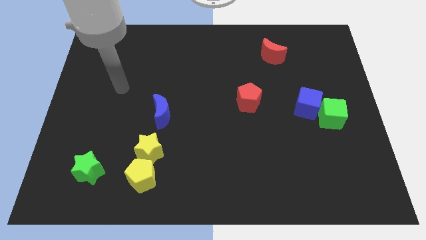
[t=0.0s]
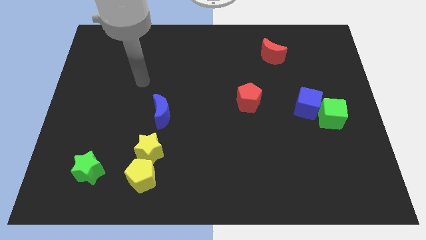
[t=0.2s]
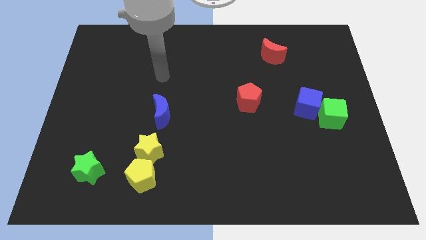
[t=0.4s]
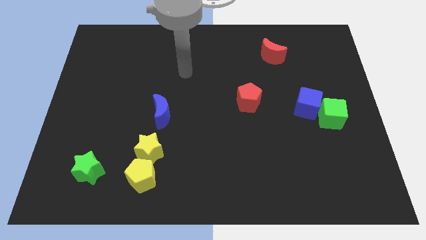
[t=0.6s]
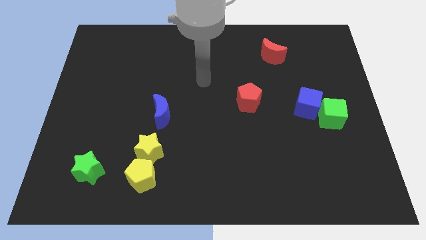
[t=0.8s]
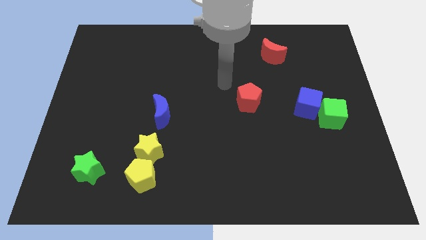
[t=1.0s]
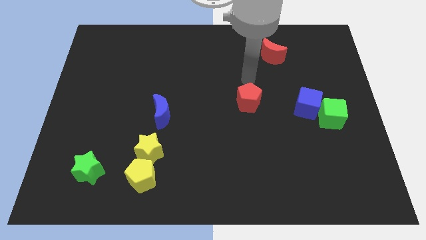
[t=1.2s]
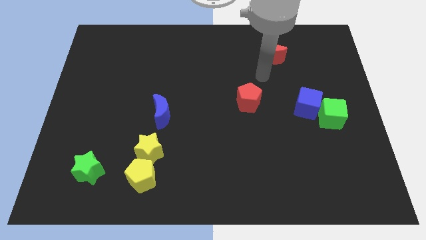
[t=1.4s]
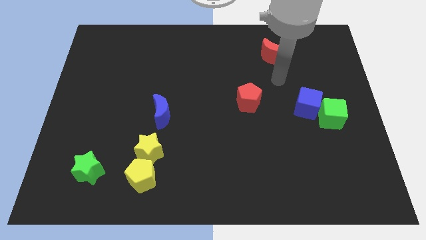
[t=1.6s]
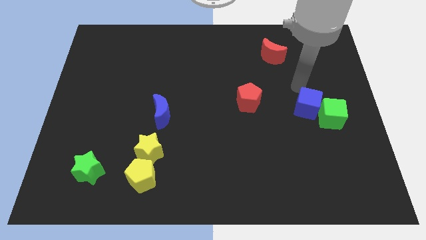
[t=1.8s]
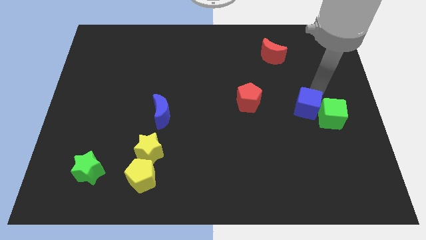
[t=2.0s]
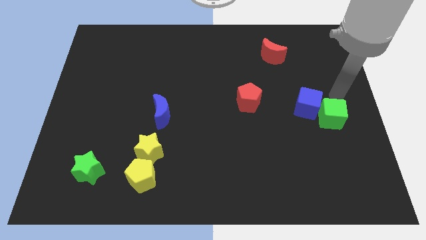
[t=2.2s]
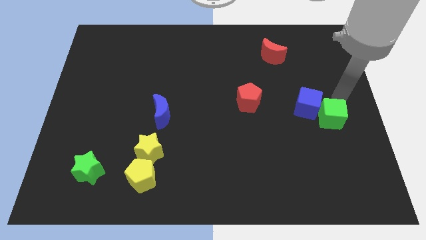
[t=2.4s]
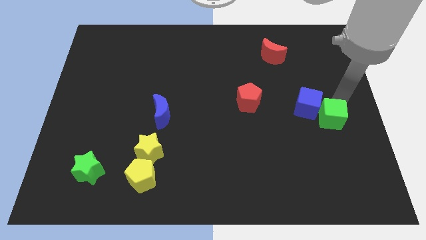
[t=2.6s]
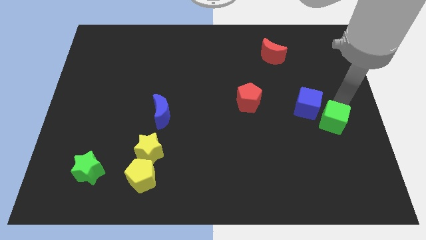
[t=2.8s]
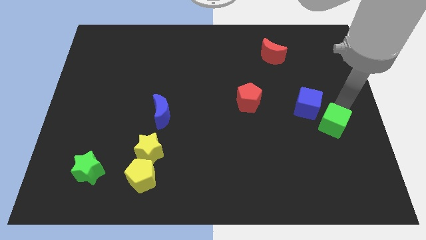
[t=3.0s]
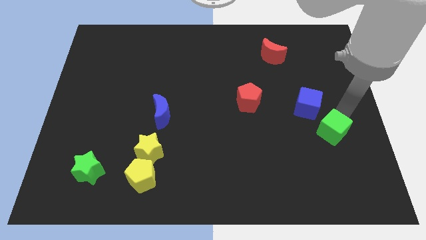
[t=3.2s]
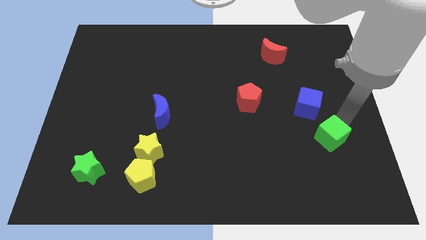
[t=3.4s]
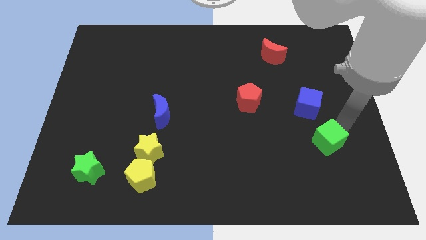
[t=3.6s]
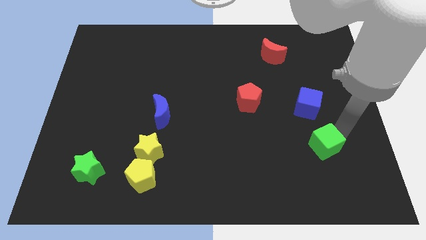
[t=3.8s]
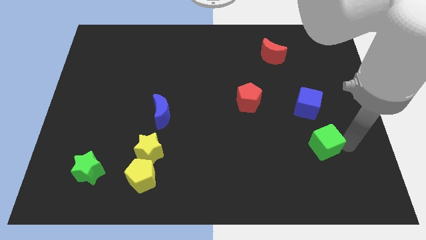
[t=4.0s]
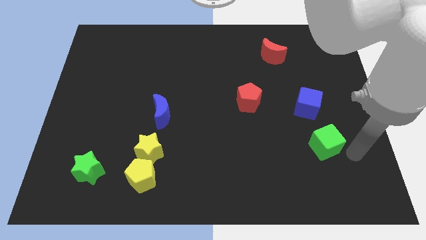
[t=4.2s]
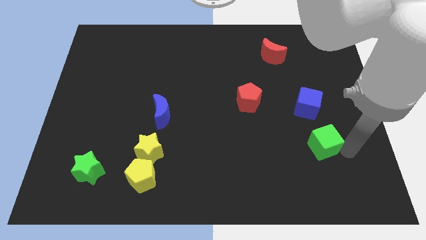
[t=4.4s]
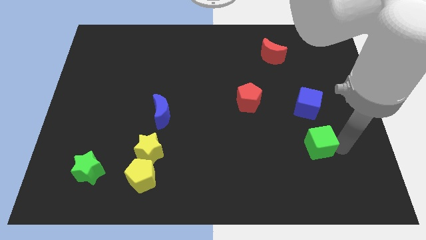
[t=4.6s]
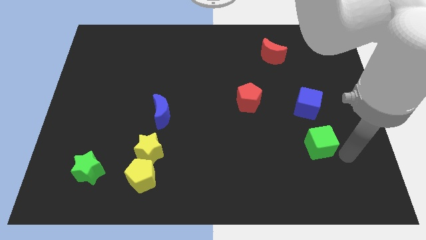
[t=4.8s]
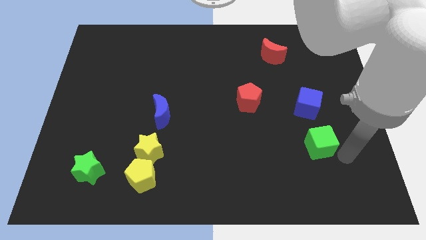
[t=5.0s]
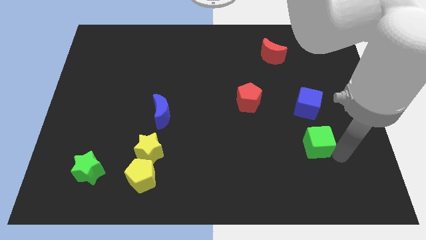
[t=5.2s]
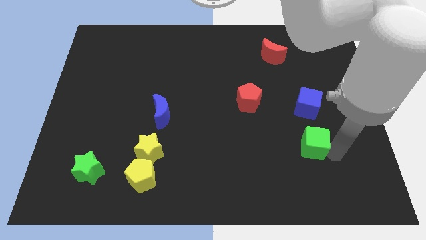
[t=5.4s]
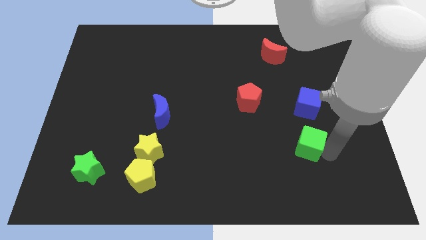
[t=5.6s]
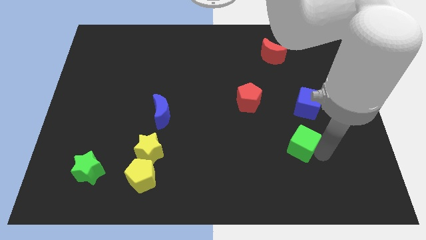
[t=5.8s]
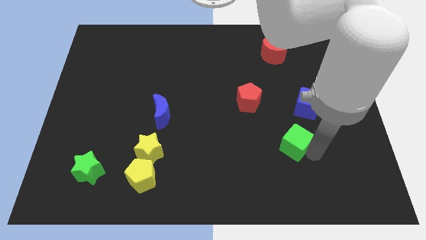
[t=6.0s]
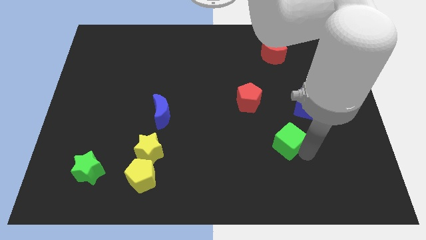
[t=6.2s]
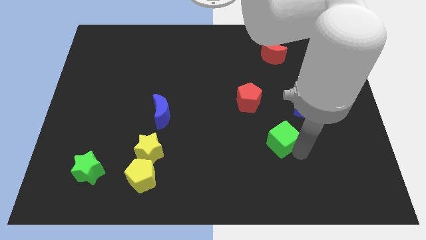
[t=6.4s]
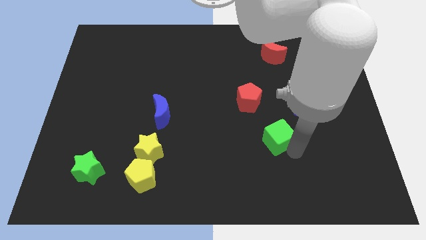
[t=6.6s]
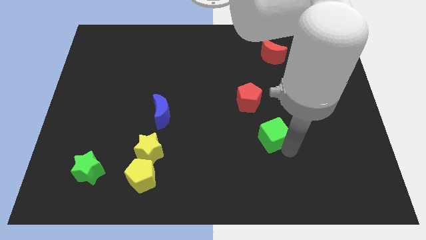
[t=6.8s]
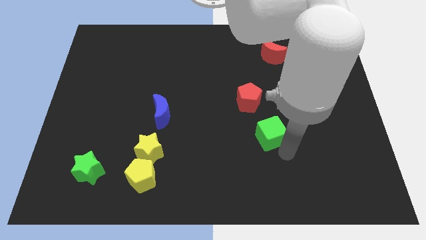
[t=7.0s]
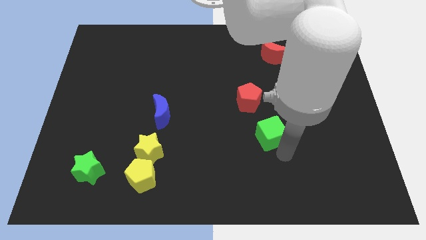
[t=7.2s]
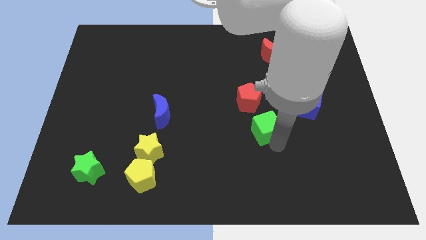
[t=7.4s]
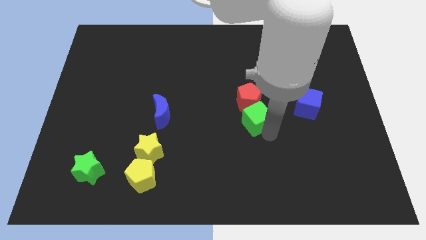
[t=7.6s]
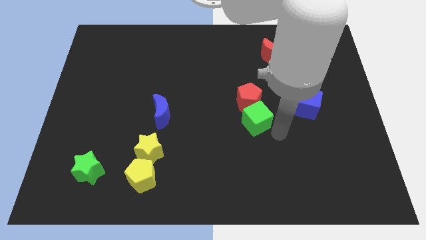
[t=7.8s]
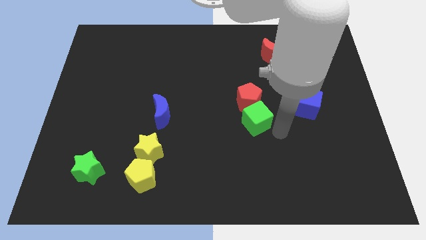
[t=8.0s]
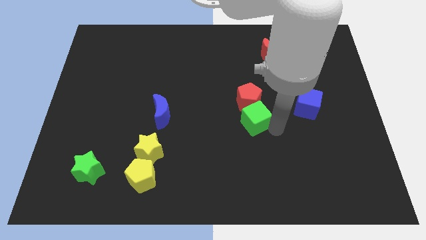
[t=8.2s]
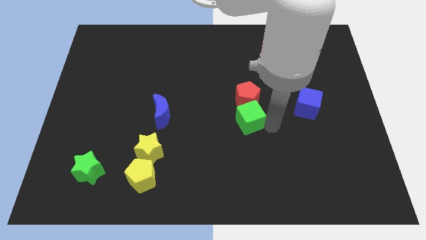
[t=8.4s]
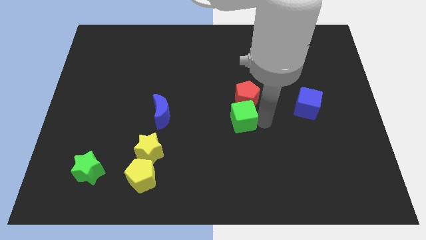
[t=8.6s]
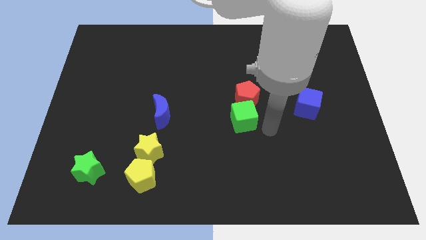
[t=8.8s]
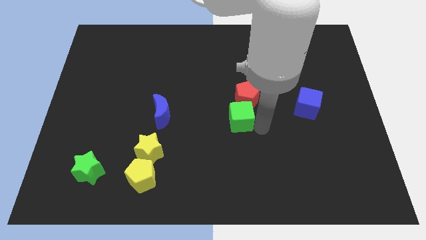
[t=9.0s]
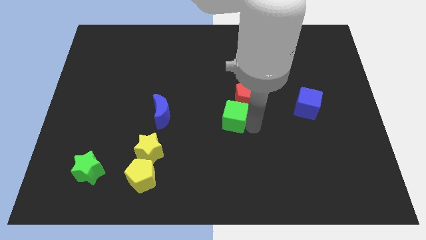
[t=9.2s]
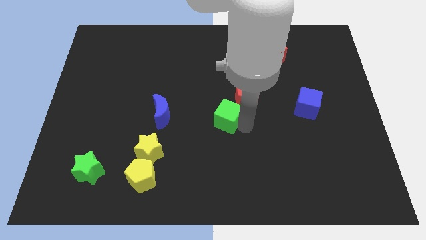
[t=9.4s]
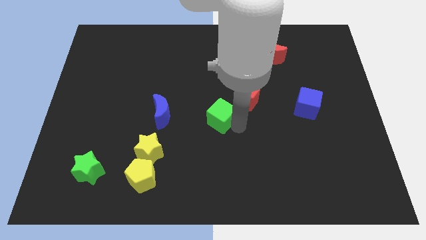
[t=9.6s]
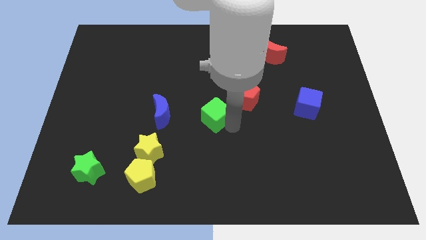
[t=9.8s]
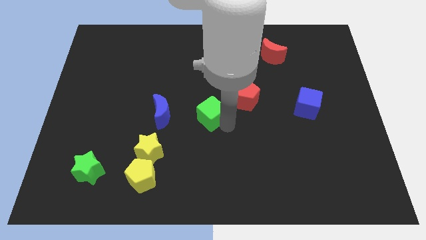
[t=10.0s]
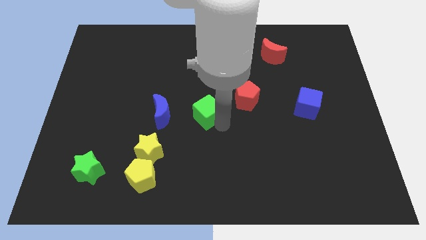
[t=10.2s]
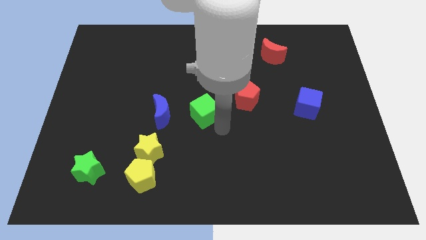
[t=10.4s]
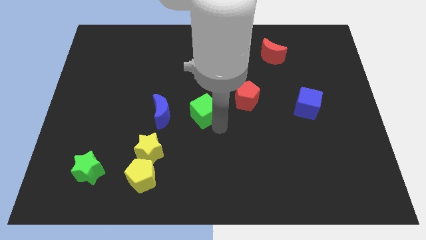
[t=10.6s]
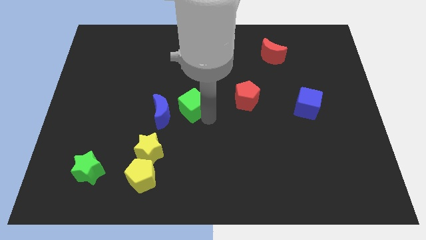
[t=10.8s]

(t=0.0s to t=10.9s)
put the green cube to the top right of the blue moon

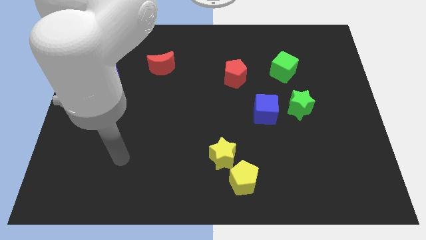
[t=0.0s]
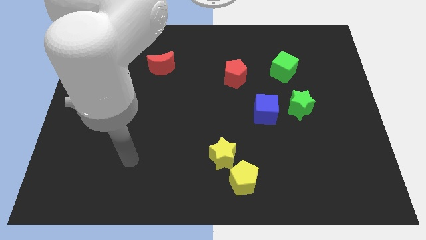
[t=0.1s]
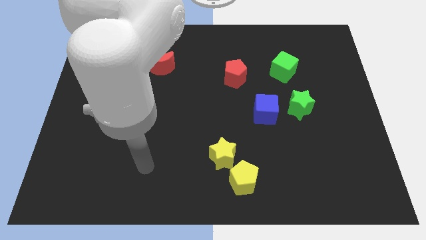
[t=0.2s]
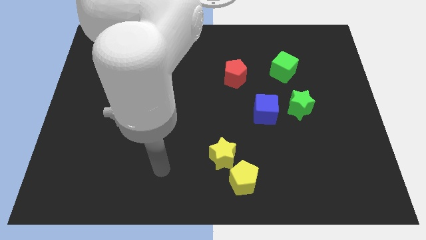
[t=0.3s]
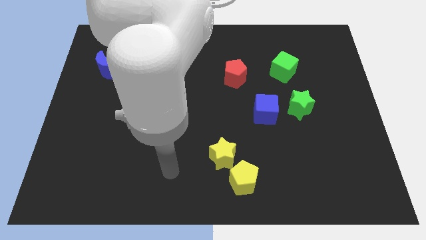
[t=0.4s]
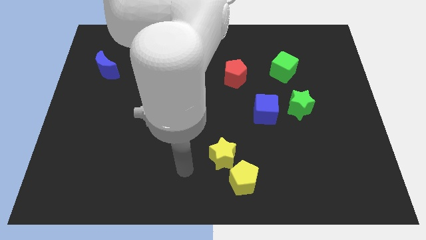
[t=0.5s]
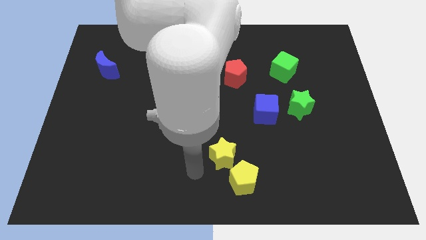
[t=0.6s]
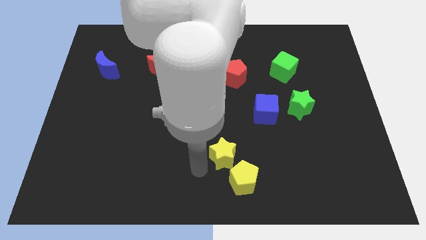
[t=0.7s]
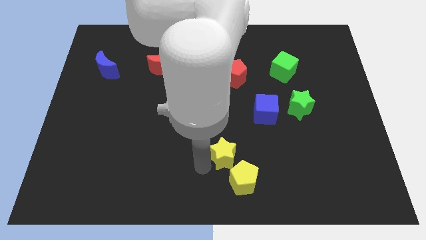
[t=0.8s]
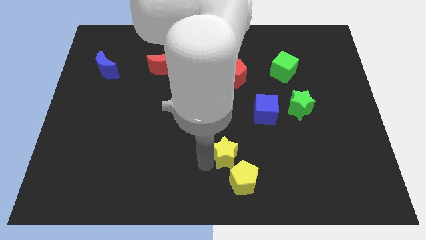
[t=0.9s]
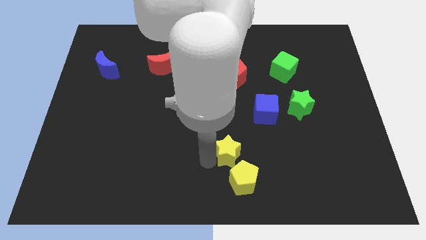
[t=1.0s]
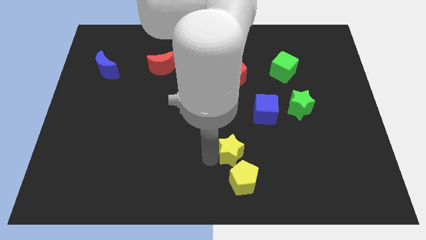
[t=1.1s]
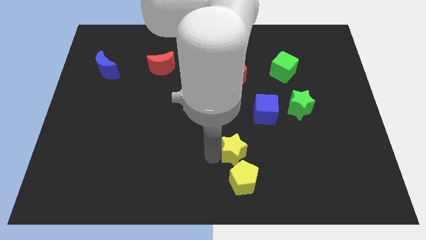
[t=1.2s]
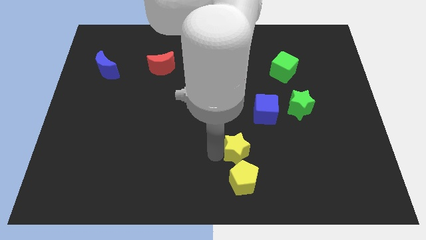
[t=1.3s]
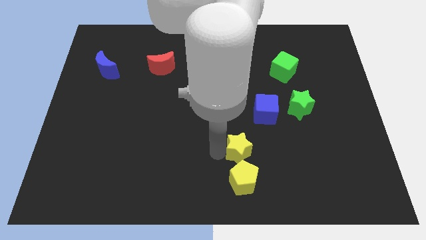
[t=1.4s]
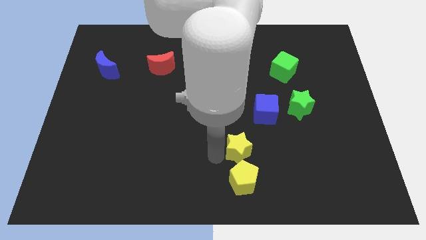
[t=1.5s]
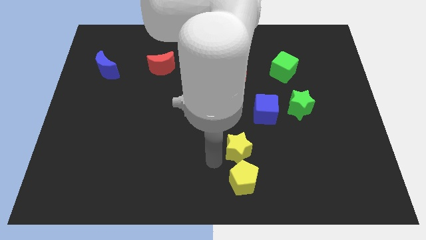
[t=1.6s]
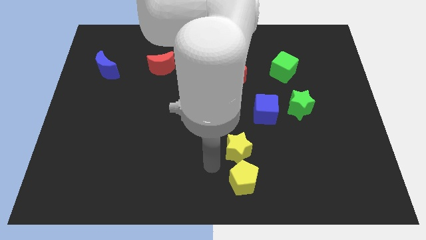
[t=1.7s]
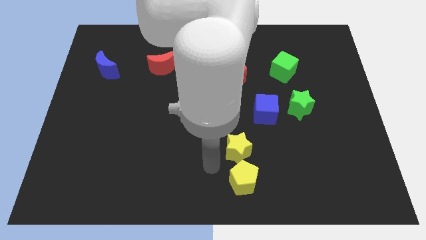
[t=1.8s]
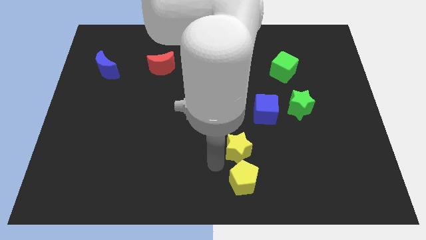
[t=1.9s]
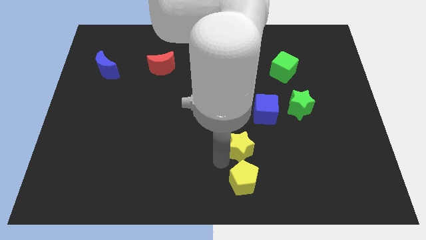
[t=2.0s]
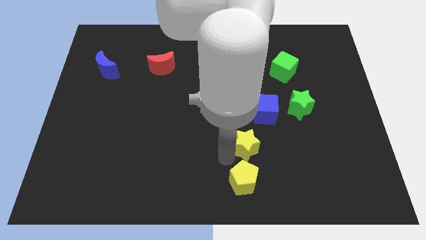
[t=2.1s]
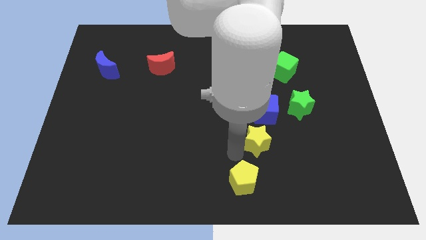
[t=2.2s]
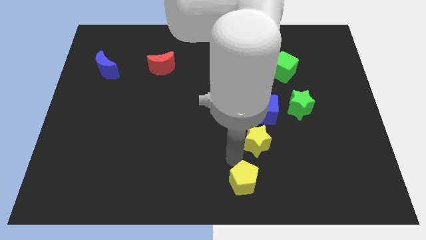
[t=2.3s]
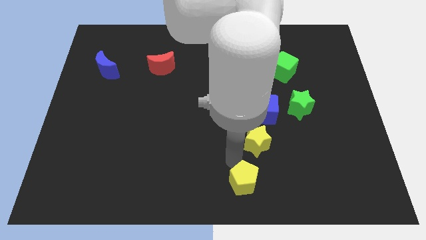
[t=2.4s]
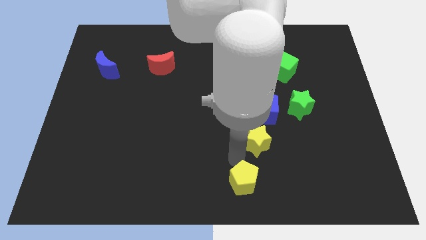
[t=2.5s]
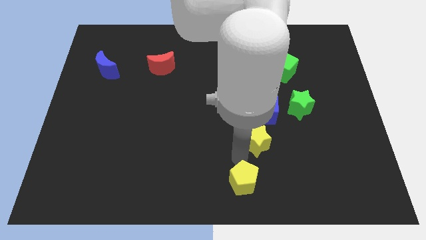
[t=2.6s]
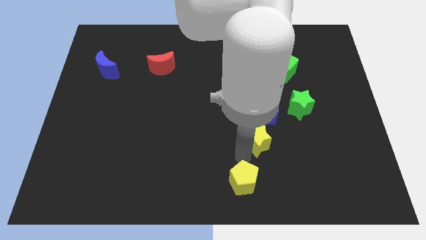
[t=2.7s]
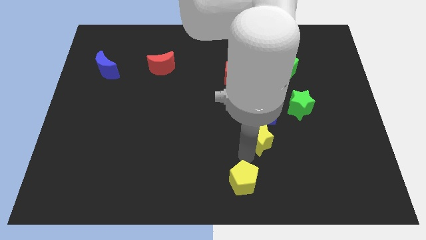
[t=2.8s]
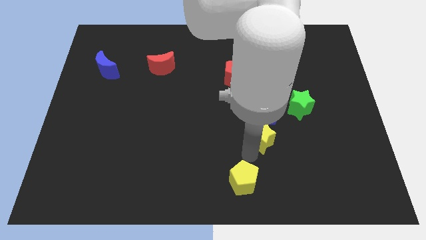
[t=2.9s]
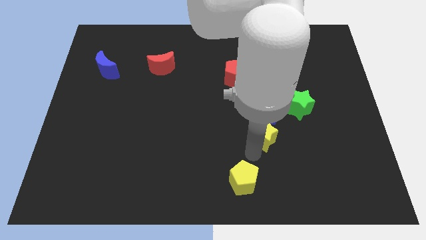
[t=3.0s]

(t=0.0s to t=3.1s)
push the yellow star diagonally down and to the left of the green star
